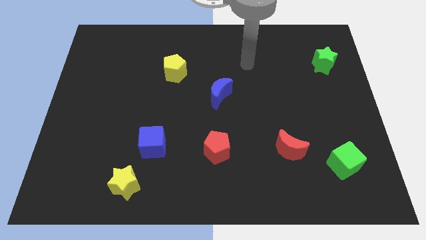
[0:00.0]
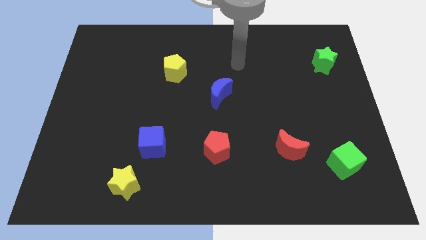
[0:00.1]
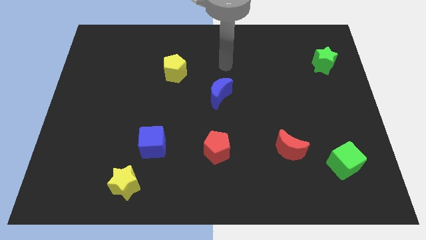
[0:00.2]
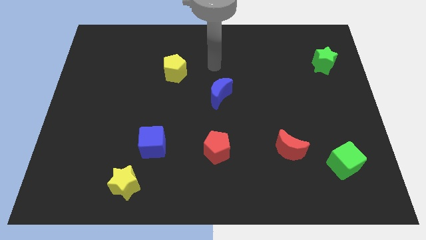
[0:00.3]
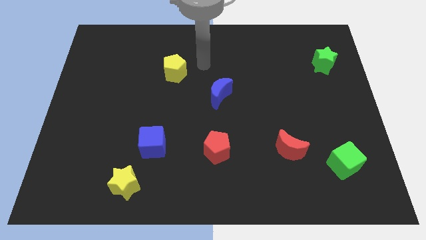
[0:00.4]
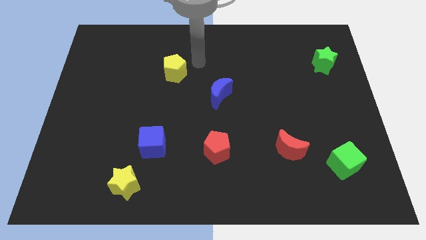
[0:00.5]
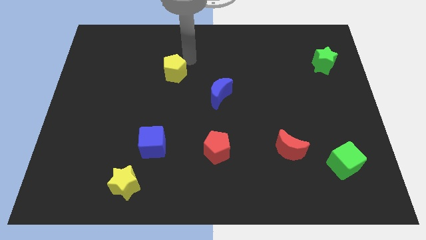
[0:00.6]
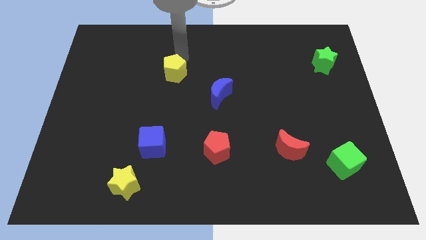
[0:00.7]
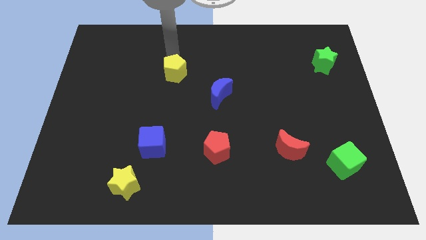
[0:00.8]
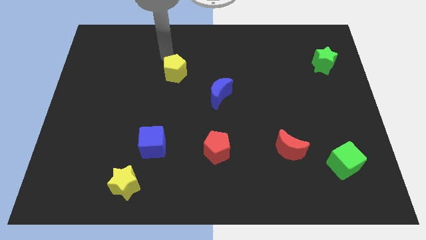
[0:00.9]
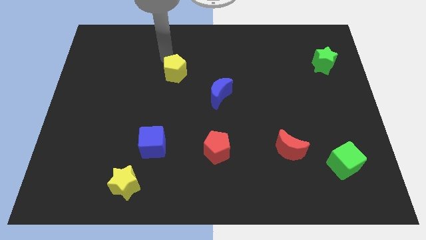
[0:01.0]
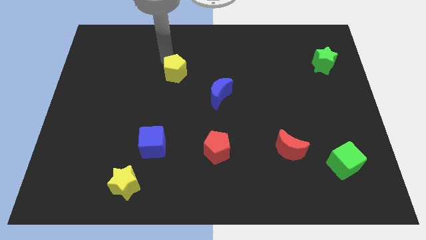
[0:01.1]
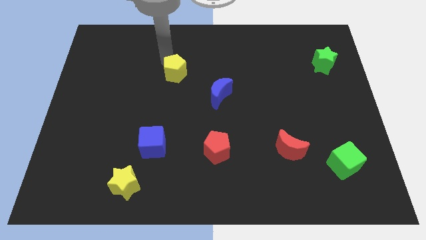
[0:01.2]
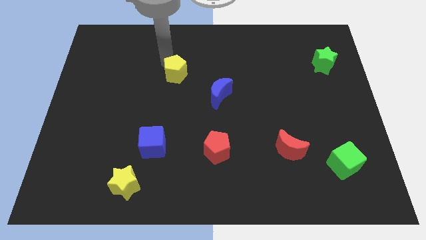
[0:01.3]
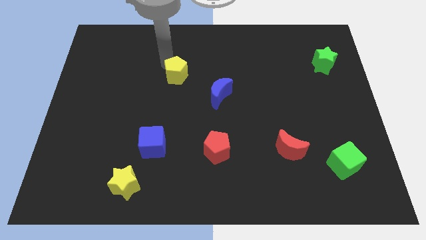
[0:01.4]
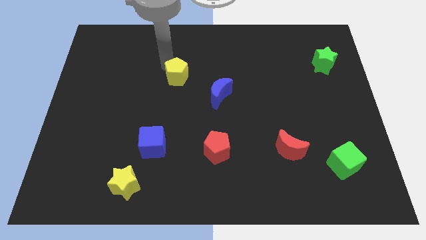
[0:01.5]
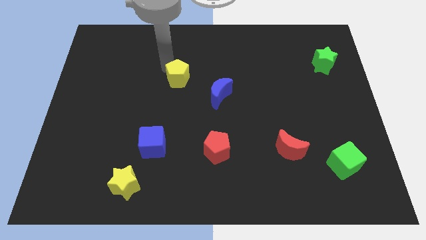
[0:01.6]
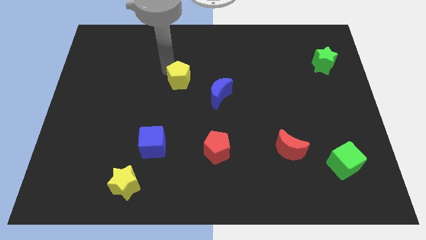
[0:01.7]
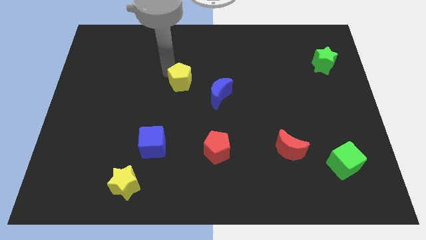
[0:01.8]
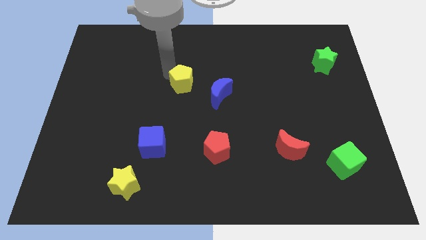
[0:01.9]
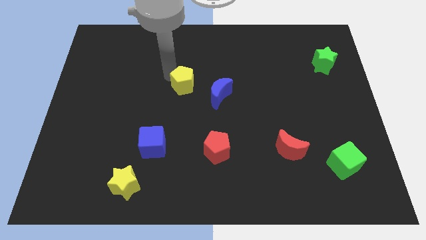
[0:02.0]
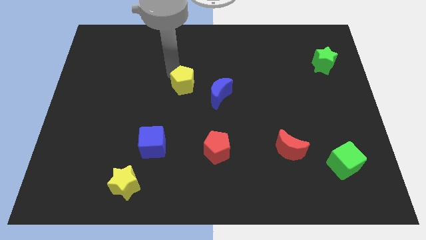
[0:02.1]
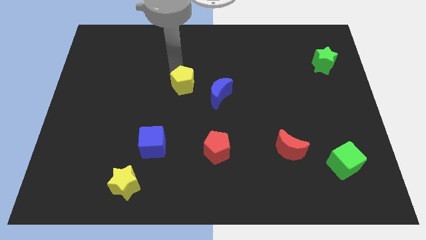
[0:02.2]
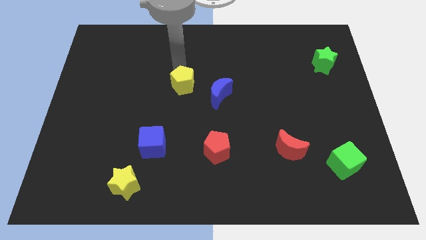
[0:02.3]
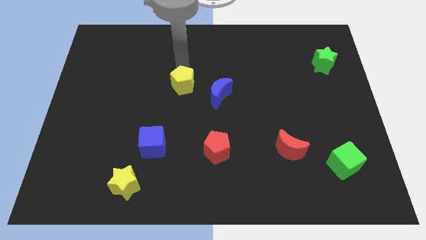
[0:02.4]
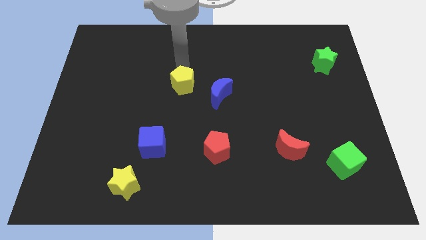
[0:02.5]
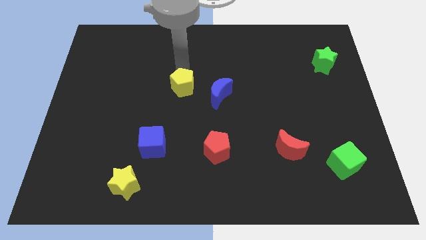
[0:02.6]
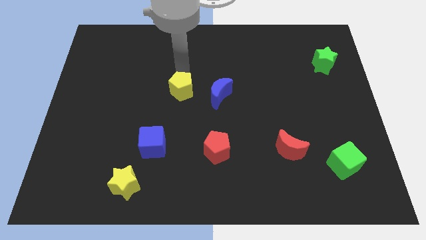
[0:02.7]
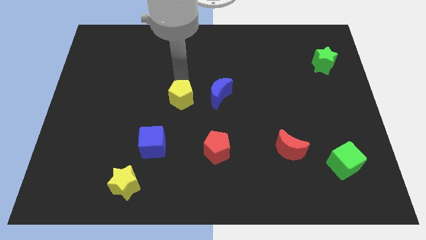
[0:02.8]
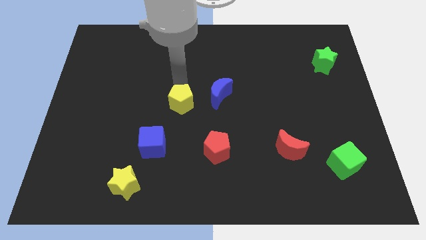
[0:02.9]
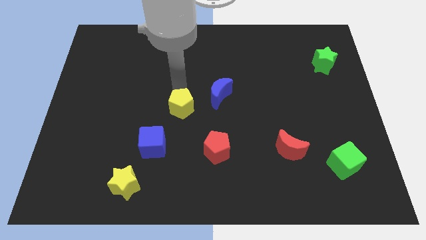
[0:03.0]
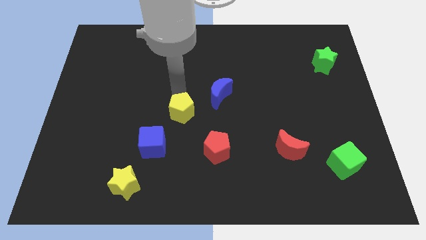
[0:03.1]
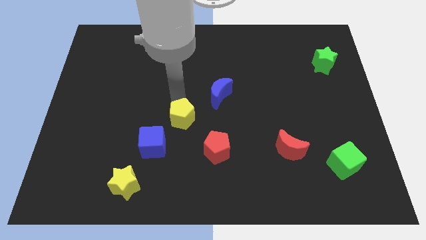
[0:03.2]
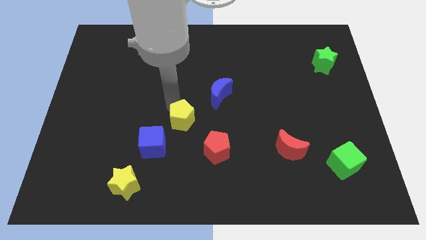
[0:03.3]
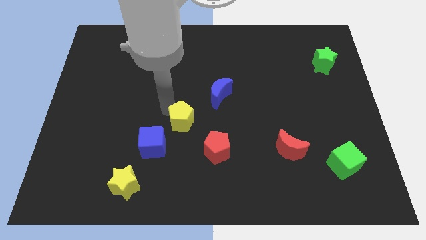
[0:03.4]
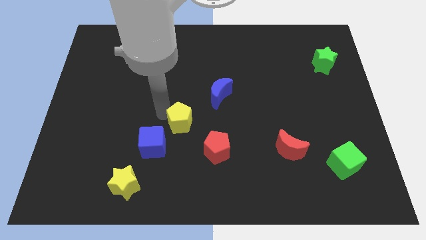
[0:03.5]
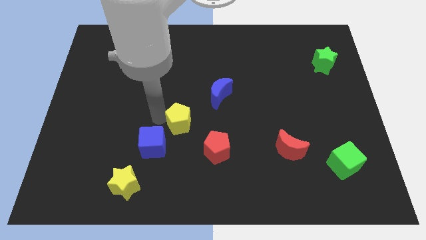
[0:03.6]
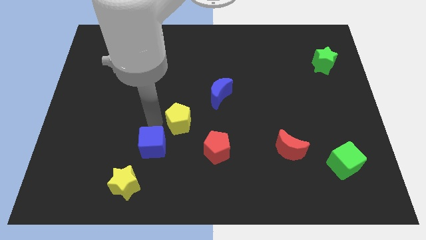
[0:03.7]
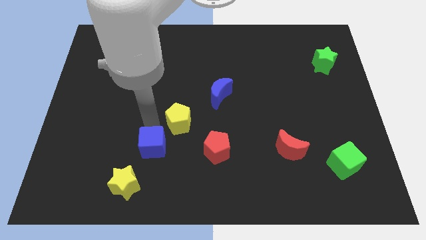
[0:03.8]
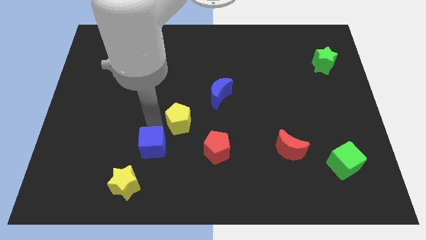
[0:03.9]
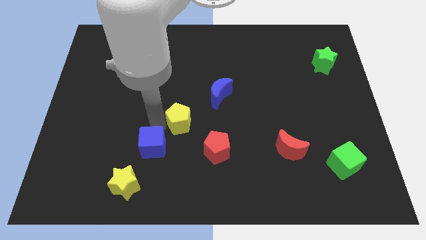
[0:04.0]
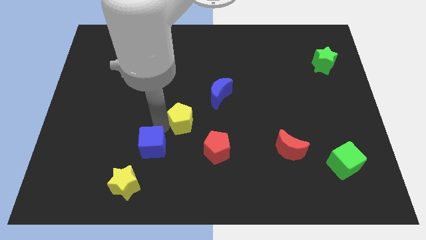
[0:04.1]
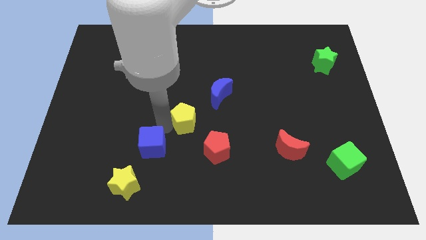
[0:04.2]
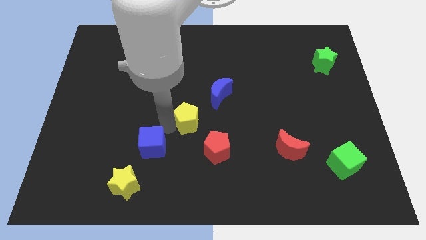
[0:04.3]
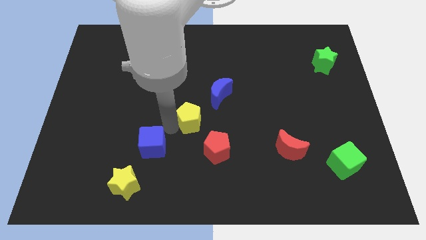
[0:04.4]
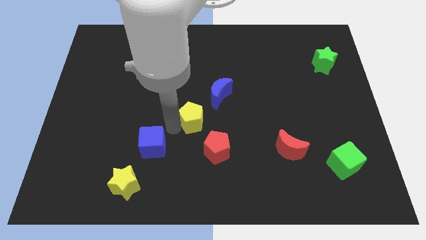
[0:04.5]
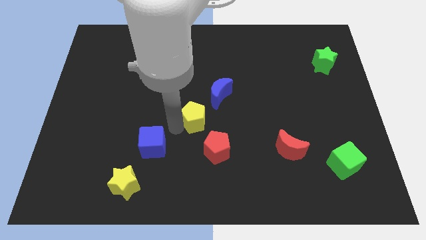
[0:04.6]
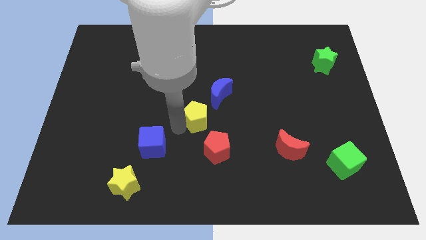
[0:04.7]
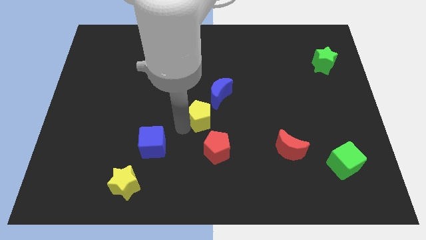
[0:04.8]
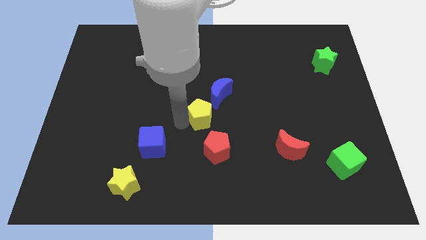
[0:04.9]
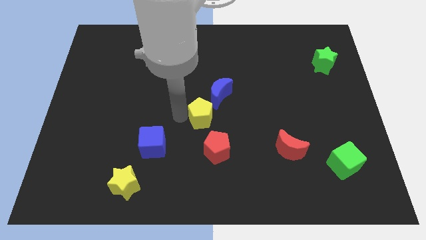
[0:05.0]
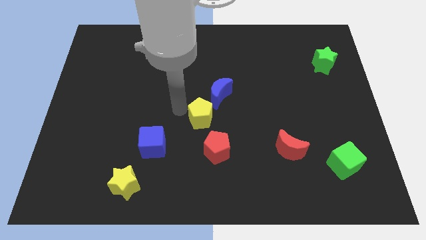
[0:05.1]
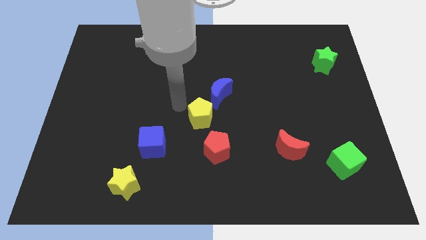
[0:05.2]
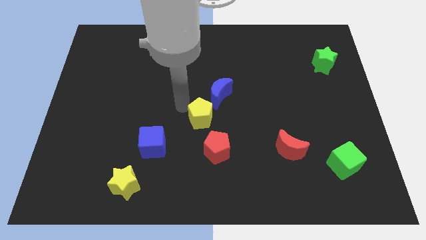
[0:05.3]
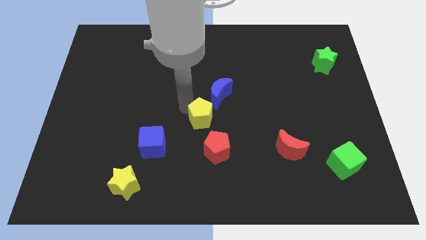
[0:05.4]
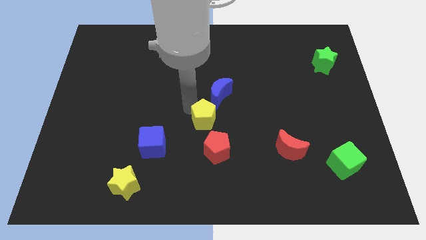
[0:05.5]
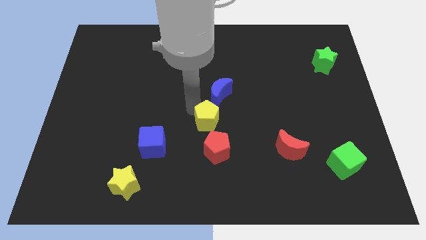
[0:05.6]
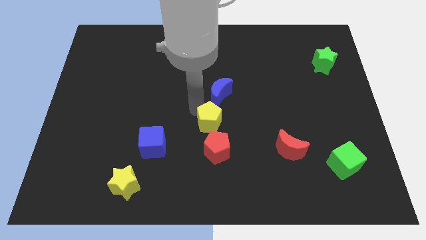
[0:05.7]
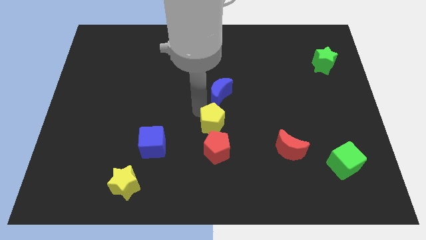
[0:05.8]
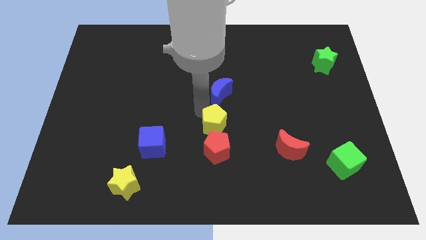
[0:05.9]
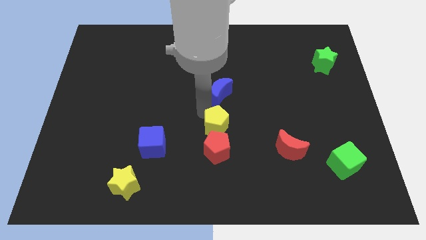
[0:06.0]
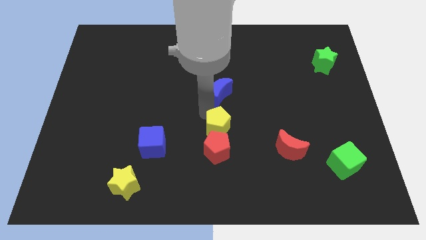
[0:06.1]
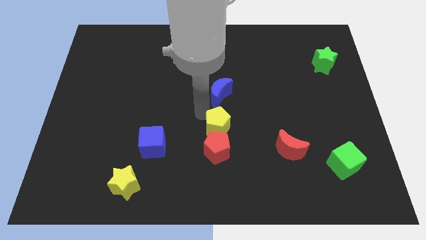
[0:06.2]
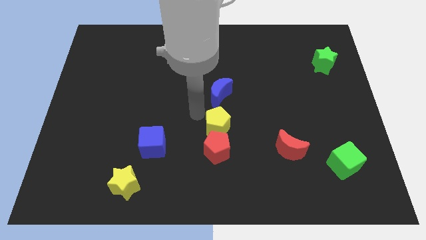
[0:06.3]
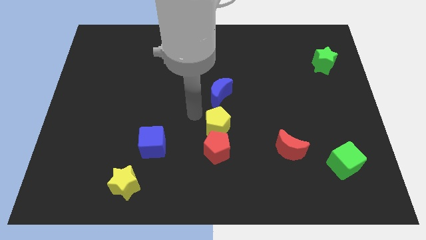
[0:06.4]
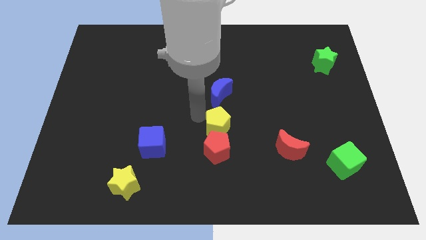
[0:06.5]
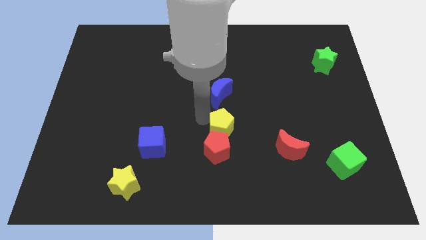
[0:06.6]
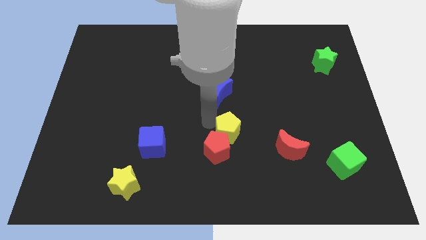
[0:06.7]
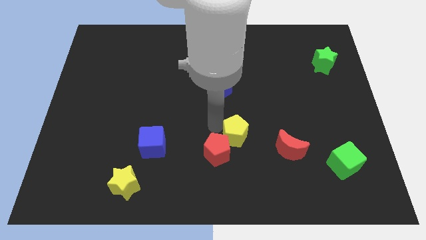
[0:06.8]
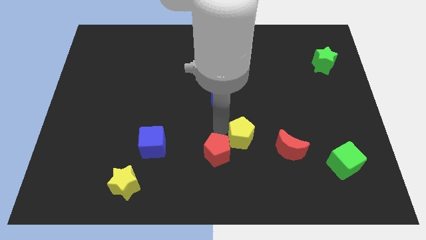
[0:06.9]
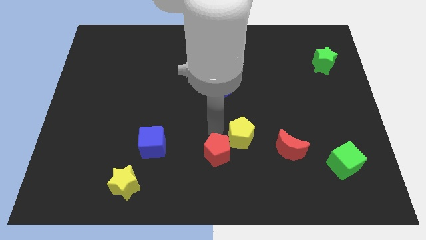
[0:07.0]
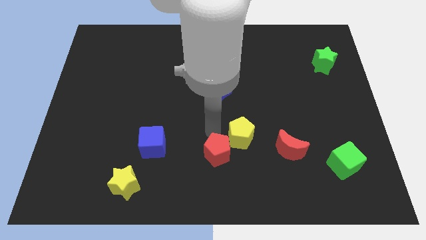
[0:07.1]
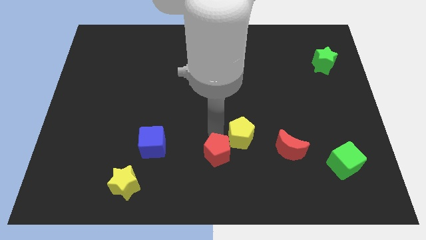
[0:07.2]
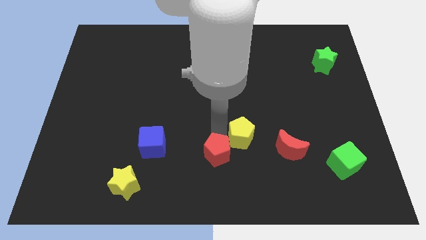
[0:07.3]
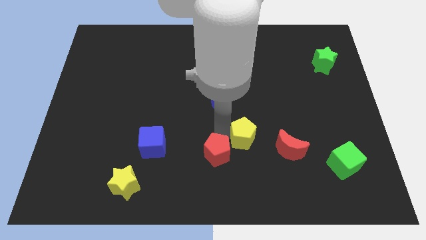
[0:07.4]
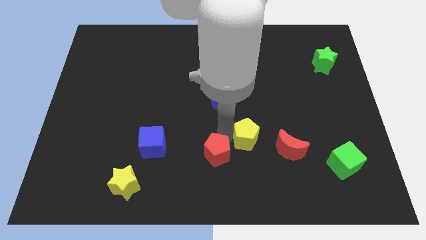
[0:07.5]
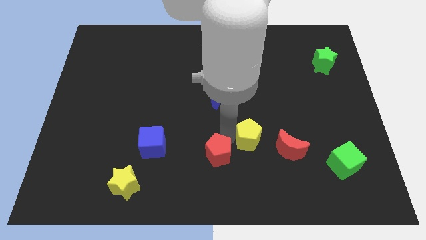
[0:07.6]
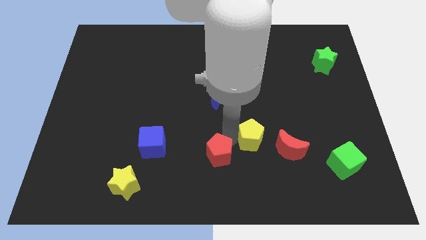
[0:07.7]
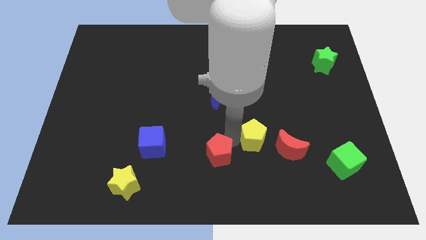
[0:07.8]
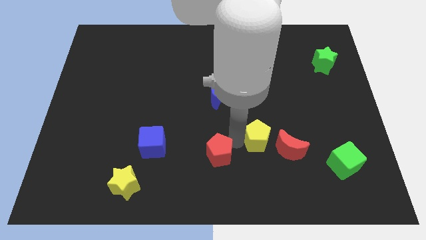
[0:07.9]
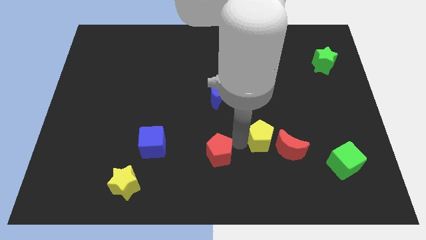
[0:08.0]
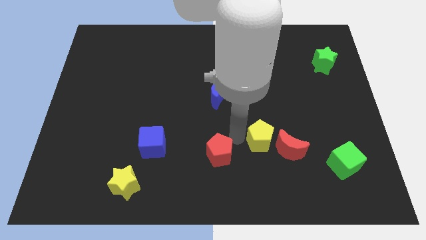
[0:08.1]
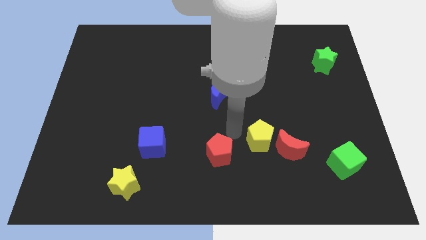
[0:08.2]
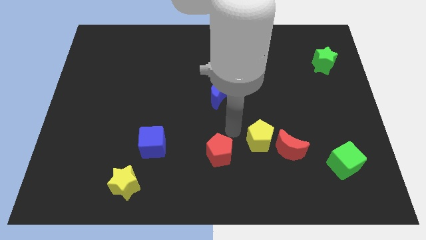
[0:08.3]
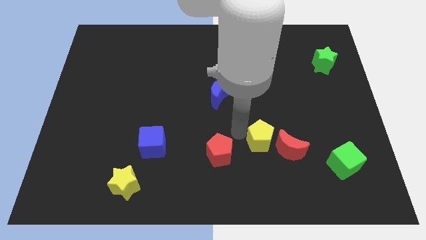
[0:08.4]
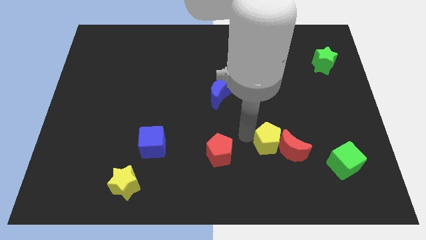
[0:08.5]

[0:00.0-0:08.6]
move the yellow pentagon towards the red moon
